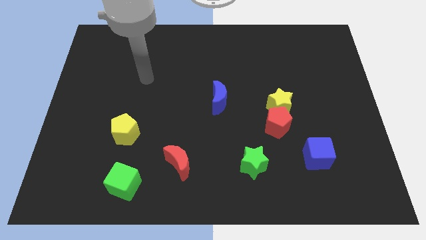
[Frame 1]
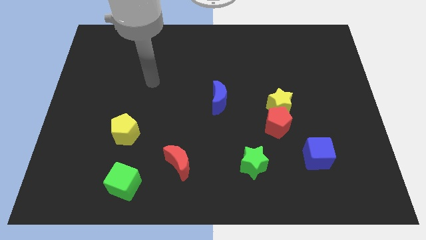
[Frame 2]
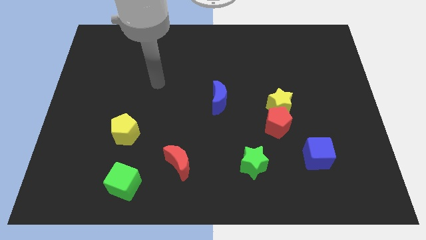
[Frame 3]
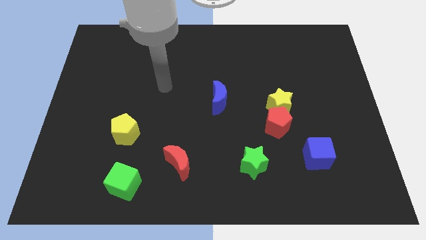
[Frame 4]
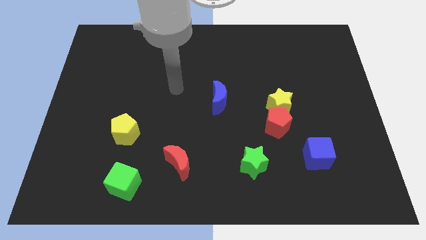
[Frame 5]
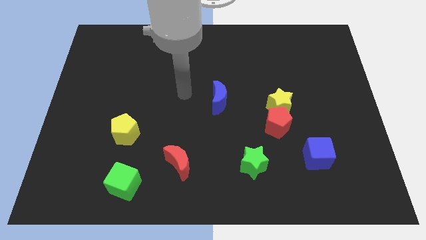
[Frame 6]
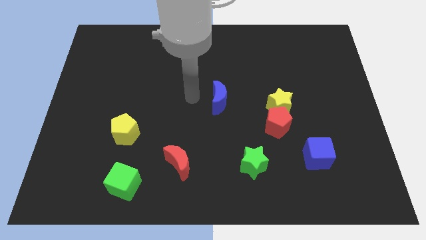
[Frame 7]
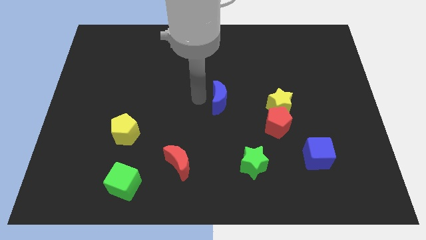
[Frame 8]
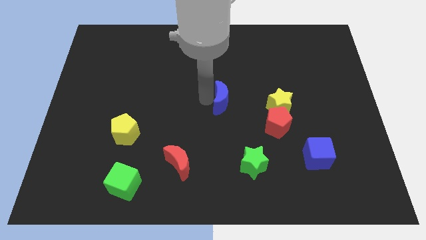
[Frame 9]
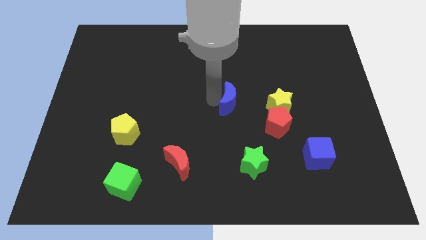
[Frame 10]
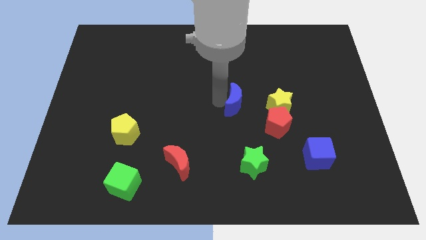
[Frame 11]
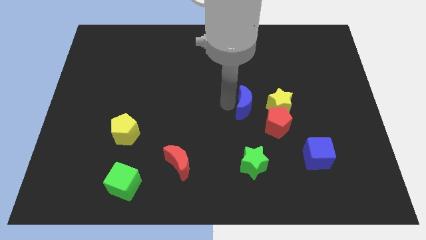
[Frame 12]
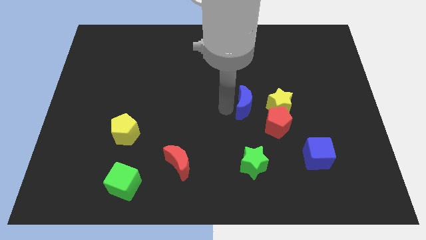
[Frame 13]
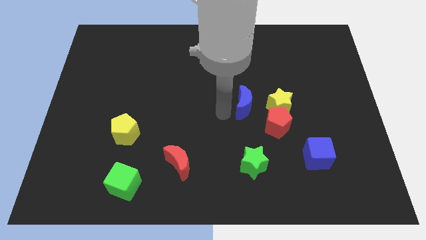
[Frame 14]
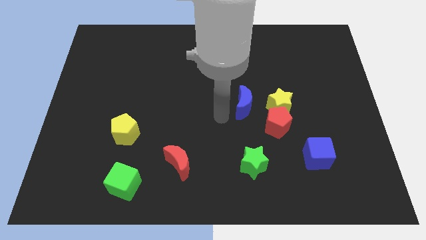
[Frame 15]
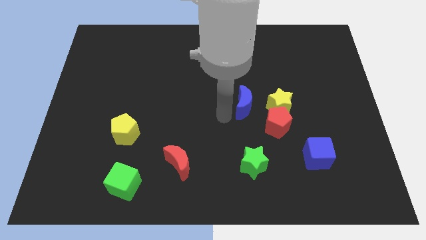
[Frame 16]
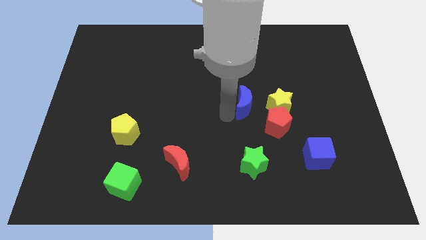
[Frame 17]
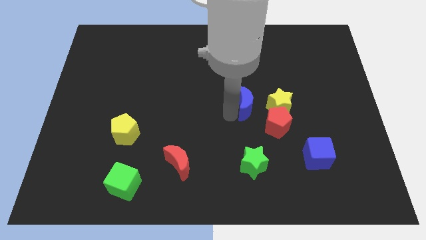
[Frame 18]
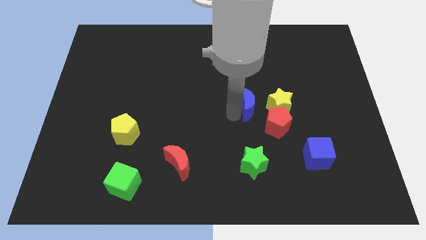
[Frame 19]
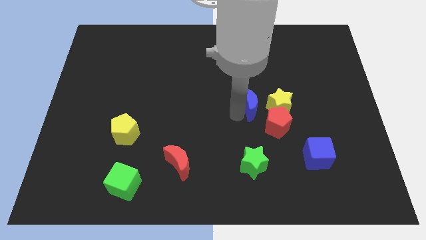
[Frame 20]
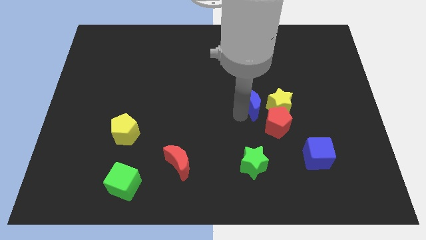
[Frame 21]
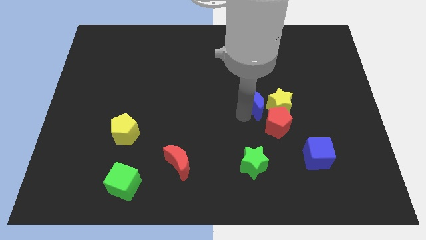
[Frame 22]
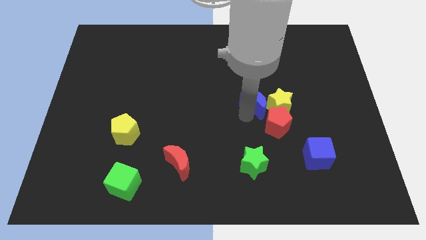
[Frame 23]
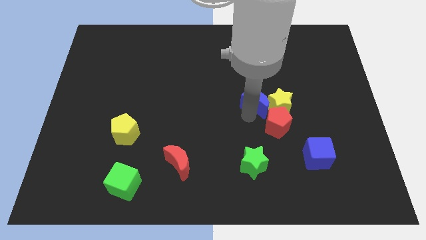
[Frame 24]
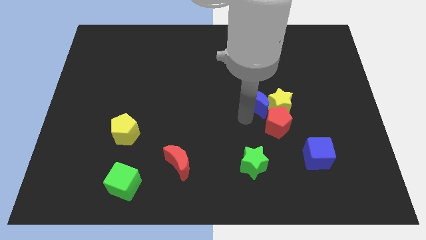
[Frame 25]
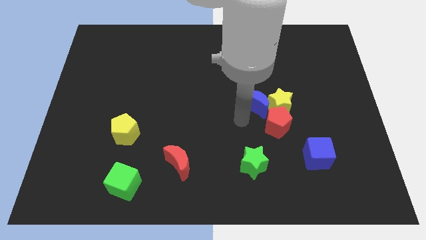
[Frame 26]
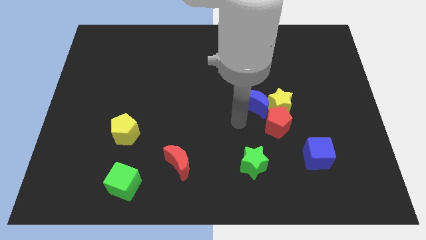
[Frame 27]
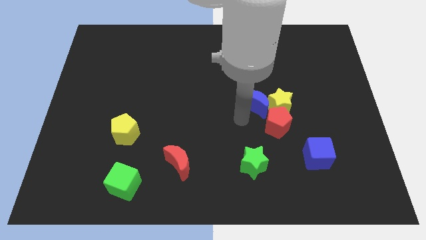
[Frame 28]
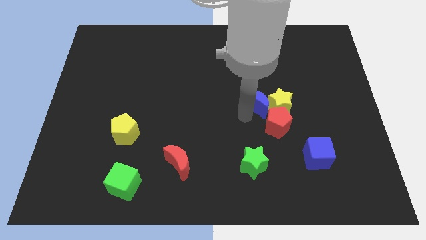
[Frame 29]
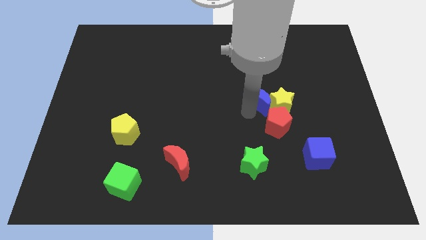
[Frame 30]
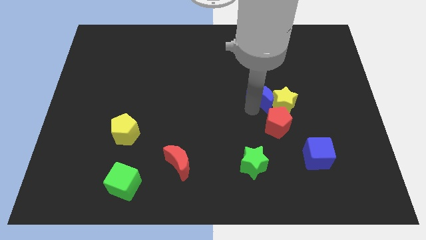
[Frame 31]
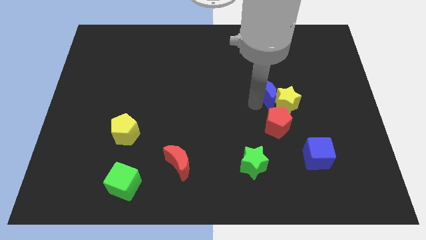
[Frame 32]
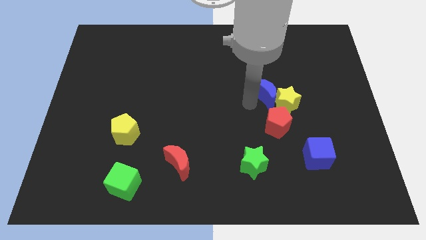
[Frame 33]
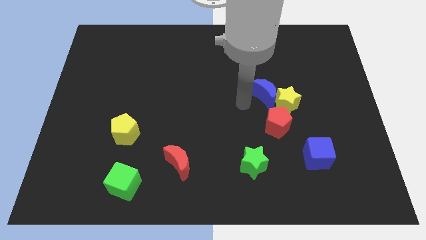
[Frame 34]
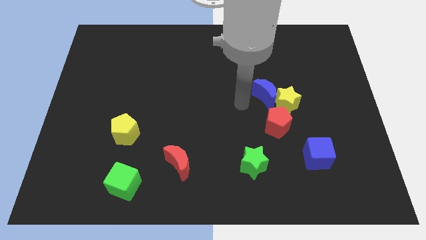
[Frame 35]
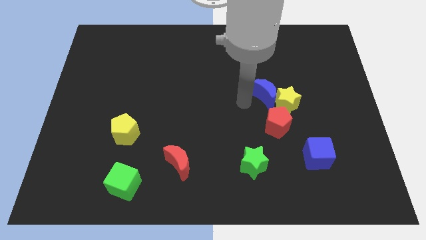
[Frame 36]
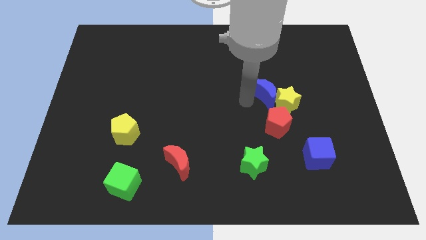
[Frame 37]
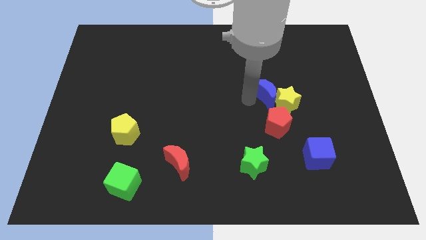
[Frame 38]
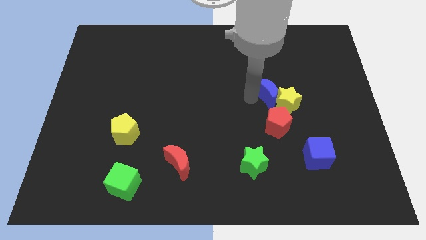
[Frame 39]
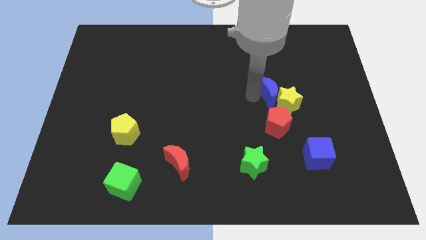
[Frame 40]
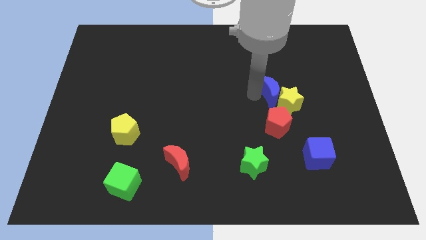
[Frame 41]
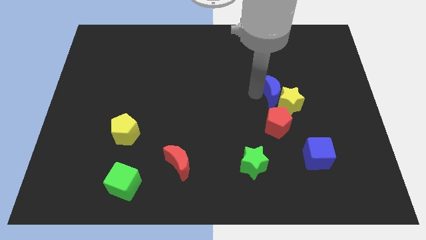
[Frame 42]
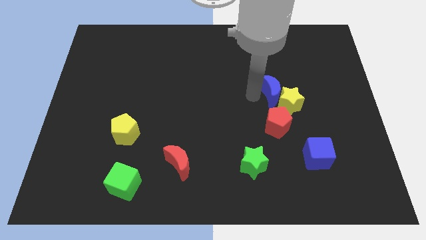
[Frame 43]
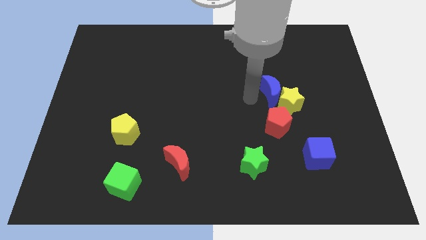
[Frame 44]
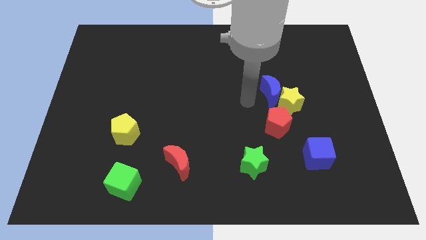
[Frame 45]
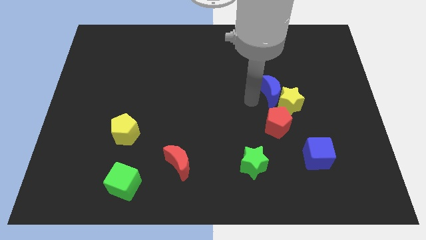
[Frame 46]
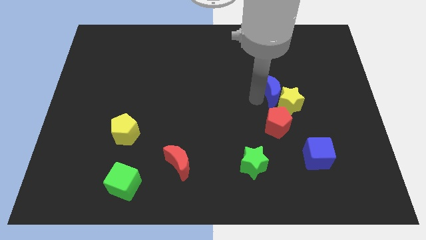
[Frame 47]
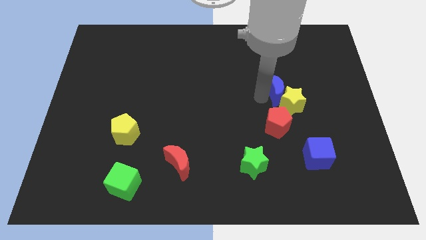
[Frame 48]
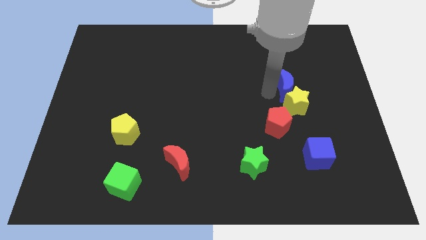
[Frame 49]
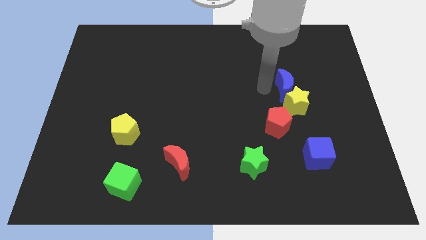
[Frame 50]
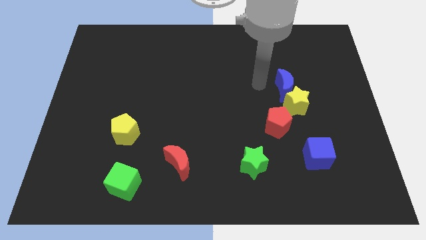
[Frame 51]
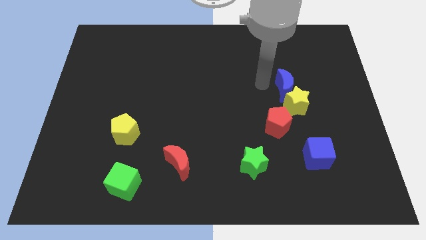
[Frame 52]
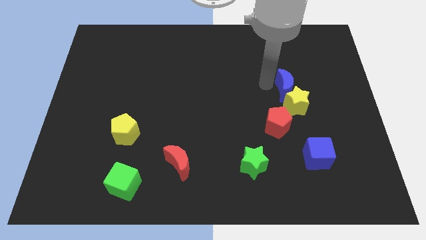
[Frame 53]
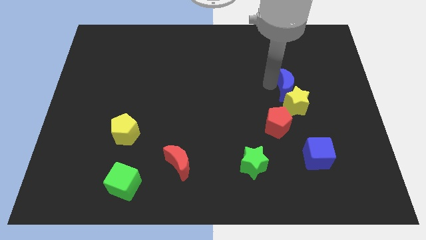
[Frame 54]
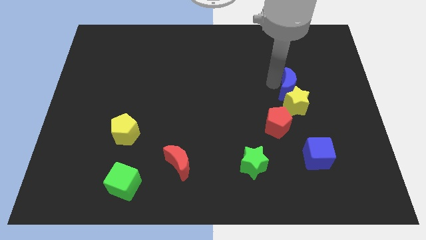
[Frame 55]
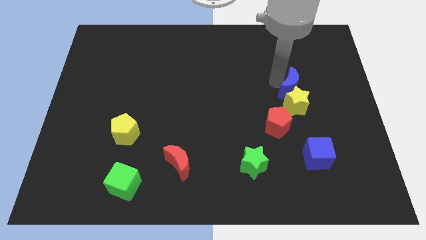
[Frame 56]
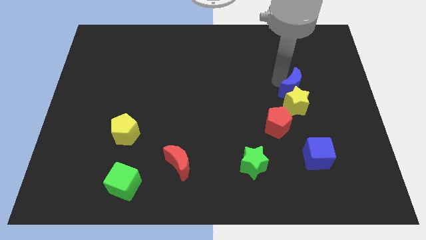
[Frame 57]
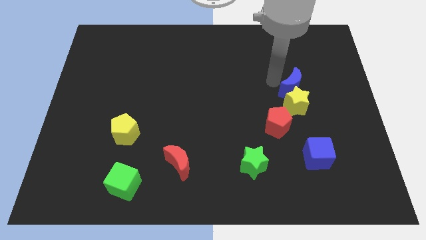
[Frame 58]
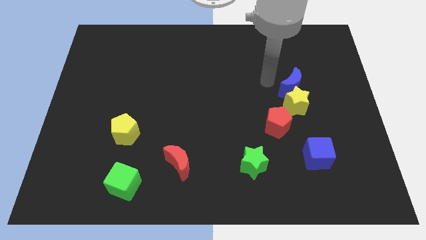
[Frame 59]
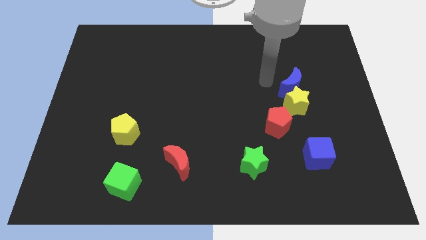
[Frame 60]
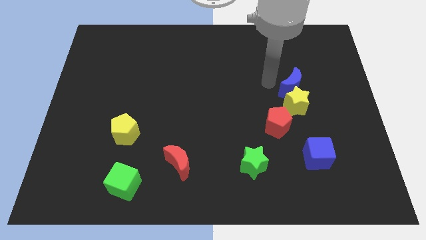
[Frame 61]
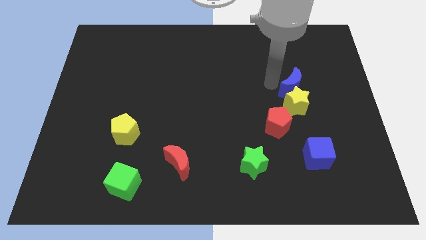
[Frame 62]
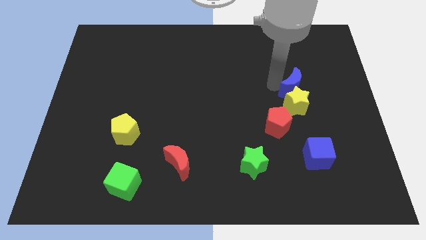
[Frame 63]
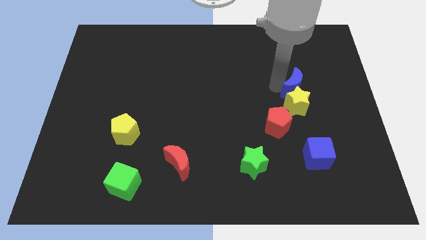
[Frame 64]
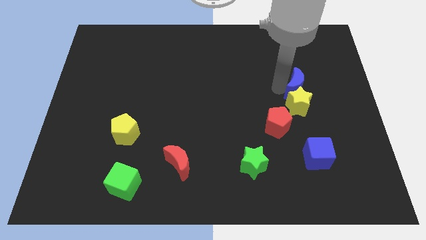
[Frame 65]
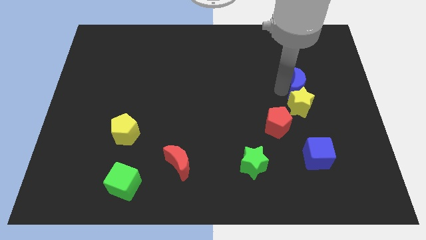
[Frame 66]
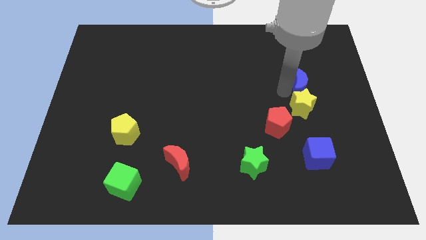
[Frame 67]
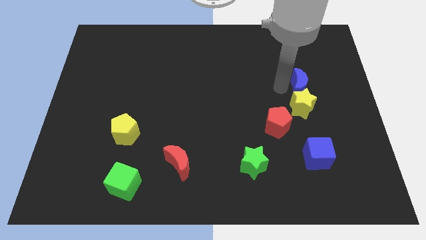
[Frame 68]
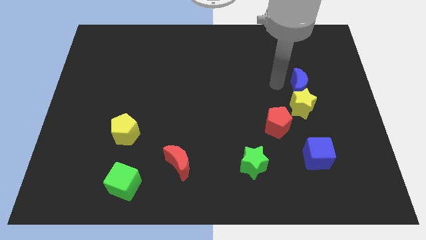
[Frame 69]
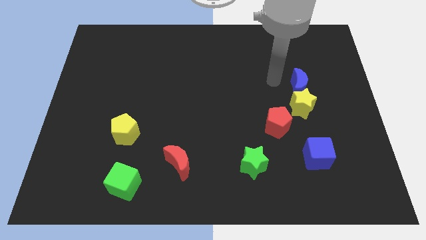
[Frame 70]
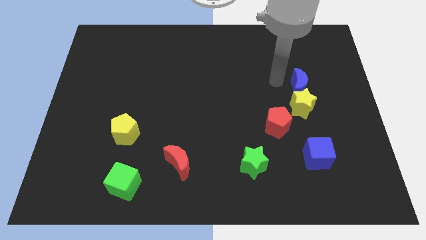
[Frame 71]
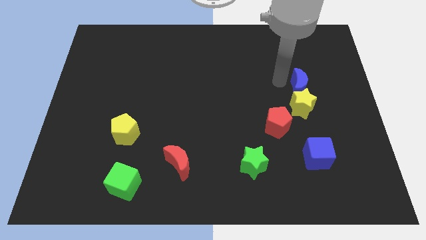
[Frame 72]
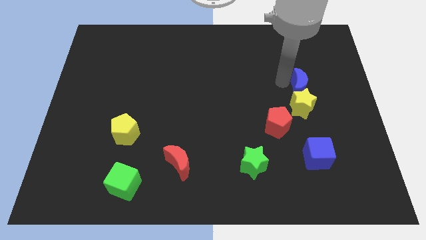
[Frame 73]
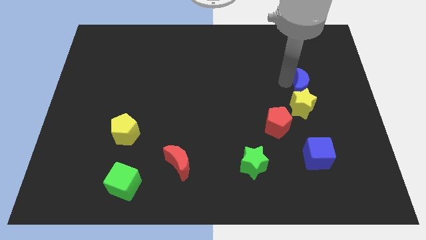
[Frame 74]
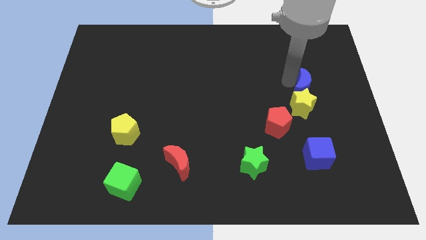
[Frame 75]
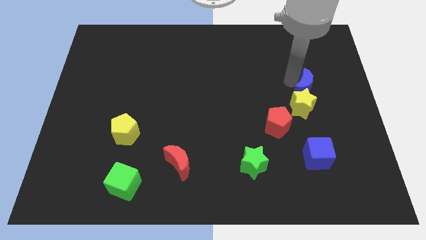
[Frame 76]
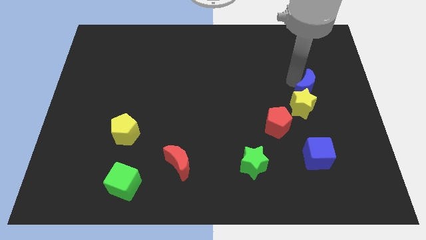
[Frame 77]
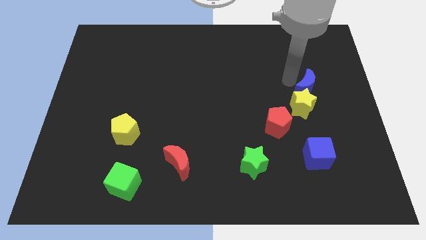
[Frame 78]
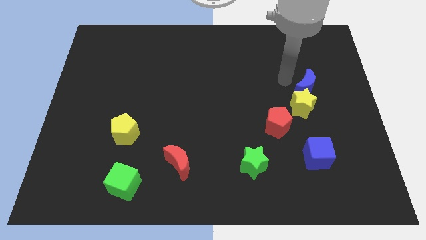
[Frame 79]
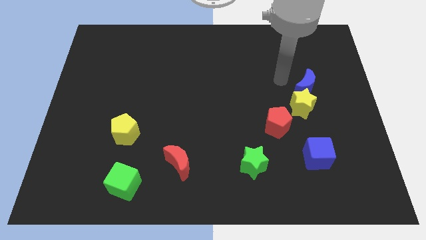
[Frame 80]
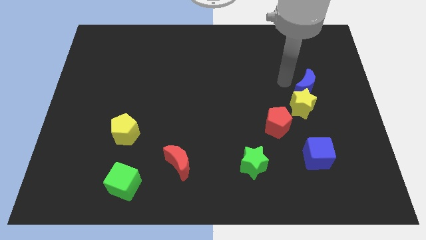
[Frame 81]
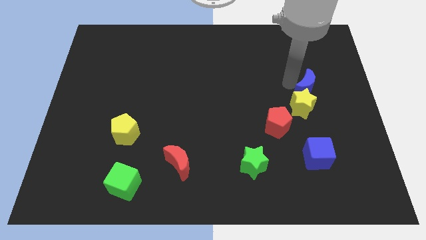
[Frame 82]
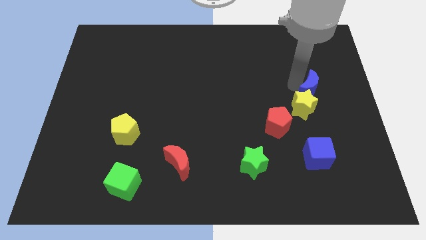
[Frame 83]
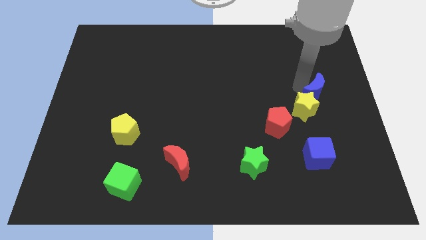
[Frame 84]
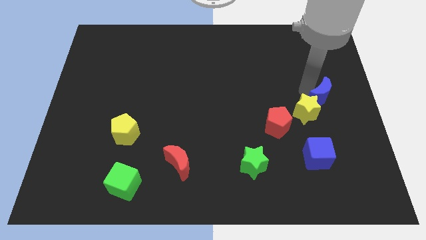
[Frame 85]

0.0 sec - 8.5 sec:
push the blue moon to the right side of the board
